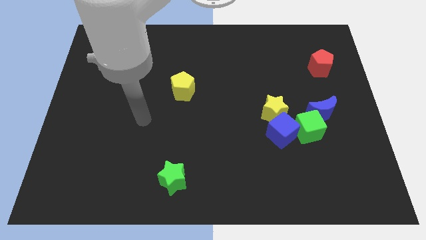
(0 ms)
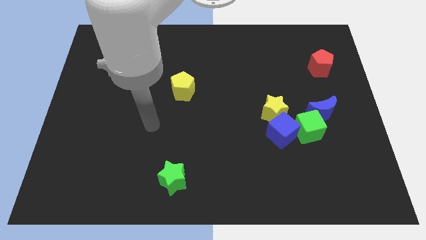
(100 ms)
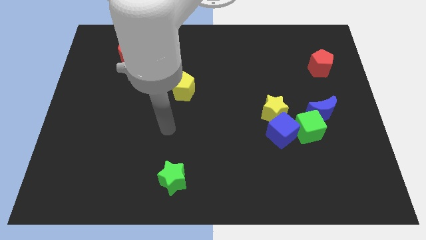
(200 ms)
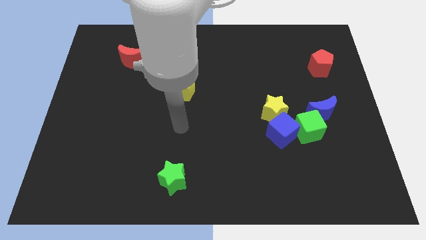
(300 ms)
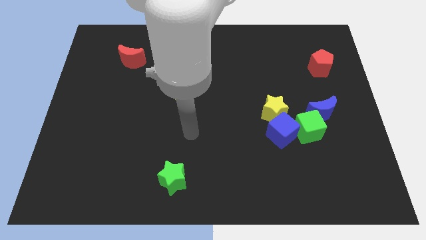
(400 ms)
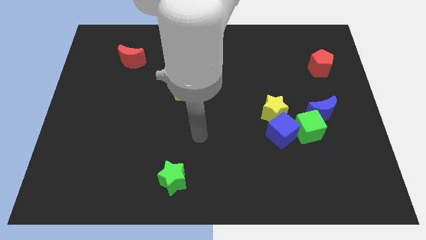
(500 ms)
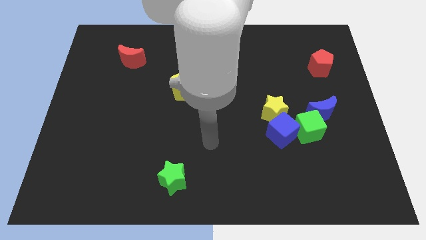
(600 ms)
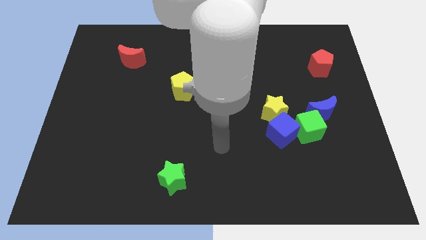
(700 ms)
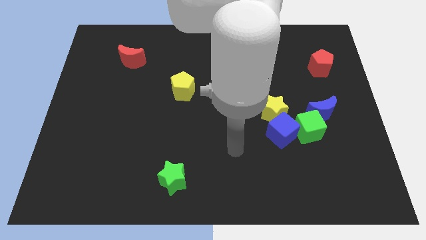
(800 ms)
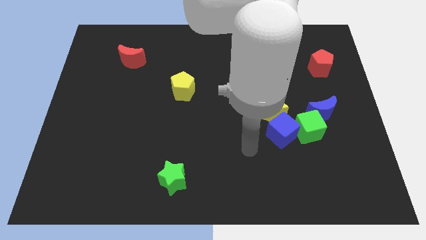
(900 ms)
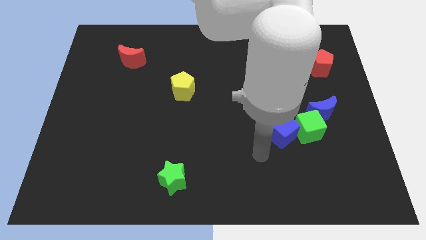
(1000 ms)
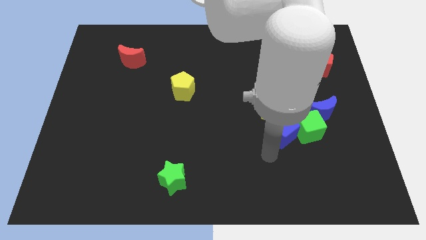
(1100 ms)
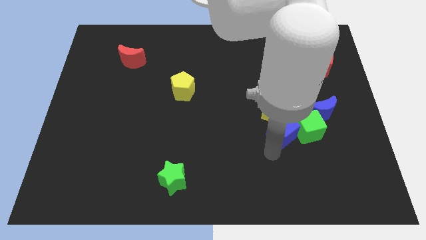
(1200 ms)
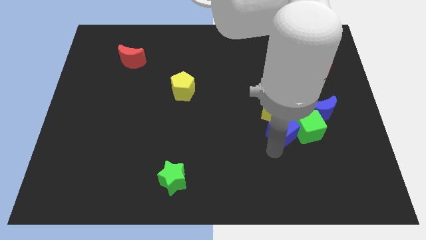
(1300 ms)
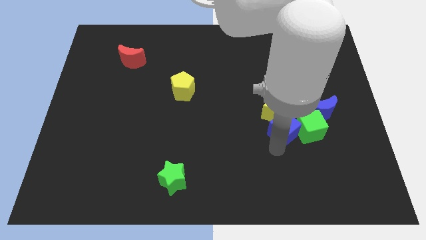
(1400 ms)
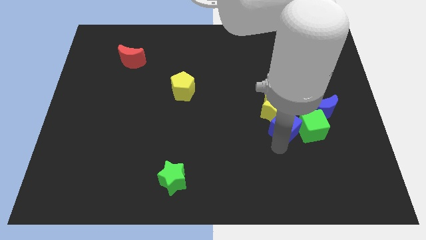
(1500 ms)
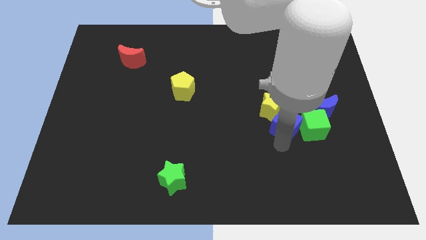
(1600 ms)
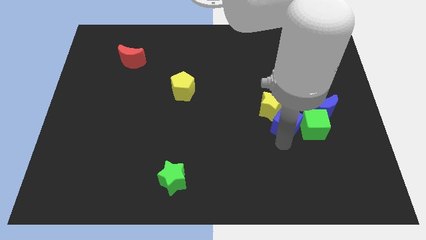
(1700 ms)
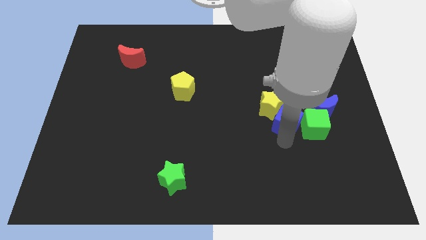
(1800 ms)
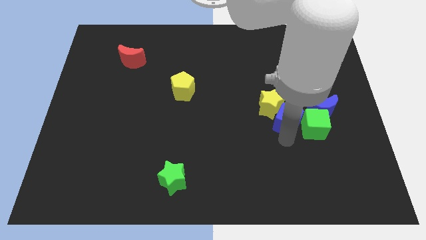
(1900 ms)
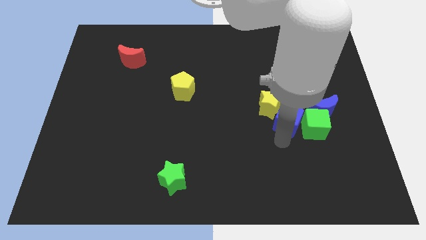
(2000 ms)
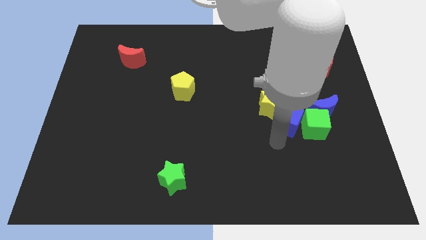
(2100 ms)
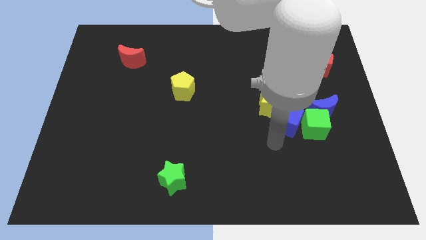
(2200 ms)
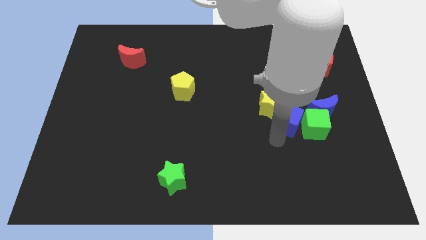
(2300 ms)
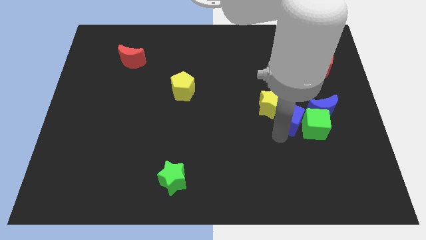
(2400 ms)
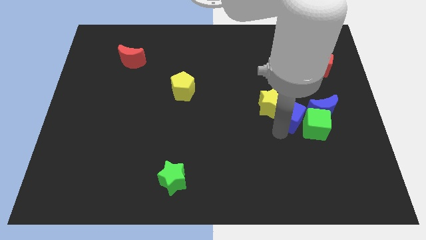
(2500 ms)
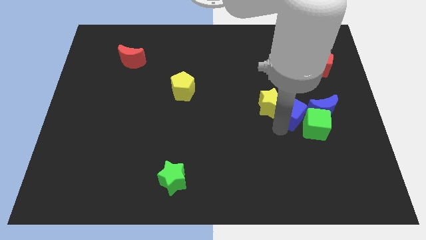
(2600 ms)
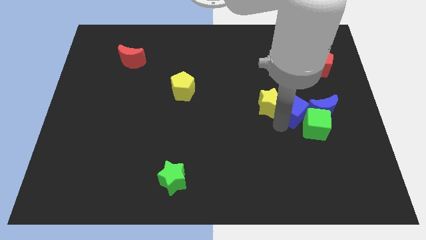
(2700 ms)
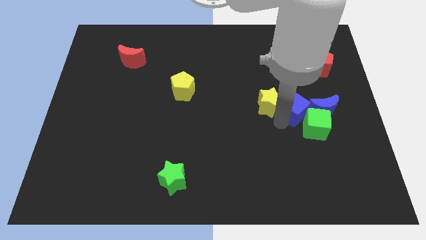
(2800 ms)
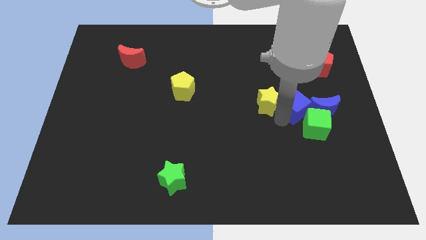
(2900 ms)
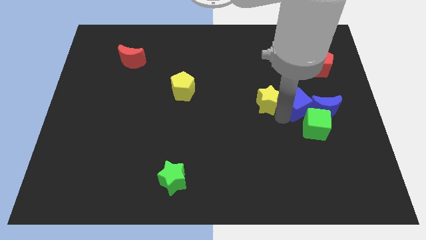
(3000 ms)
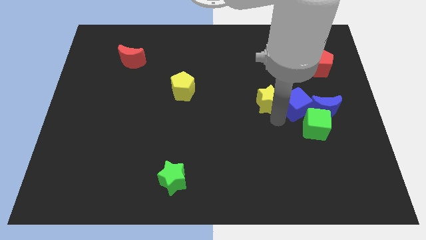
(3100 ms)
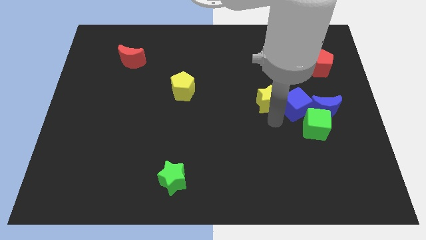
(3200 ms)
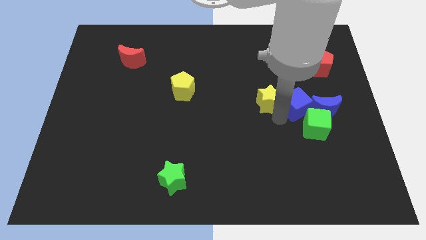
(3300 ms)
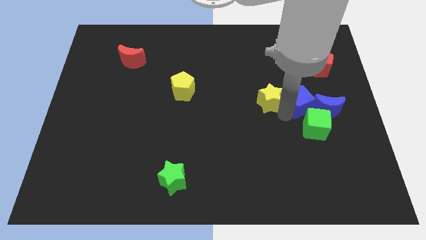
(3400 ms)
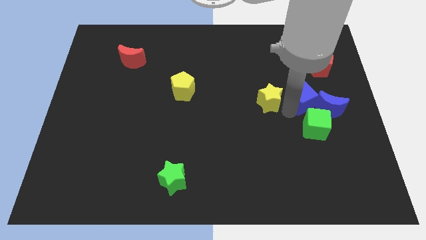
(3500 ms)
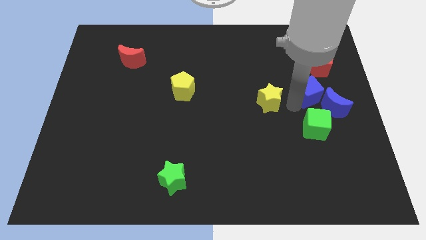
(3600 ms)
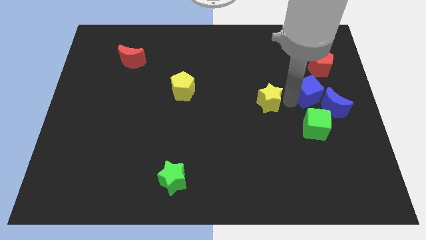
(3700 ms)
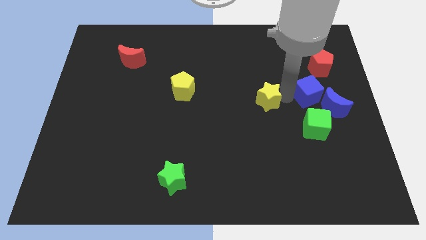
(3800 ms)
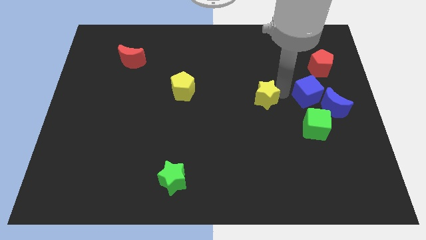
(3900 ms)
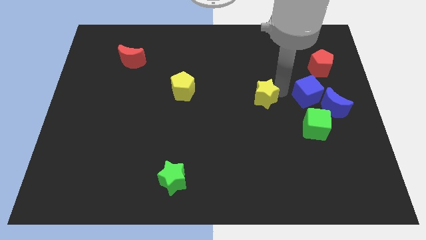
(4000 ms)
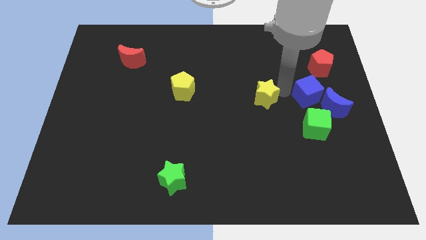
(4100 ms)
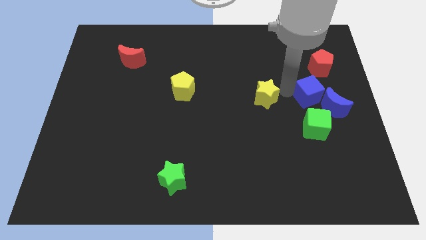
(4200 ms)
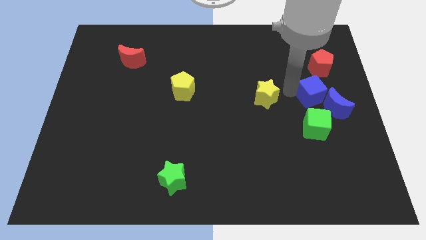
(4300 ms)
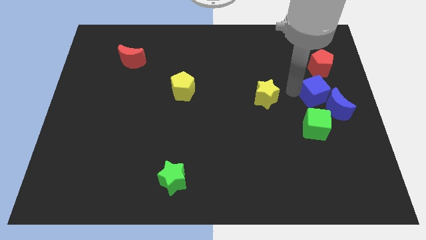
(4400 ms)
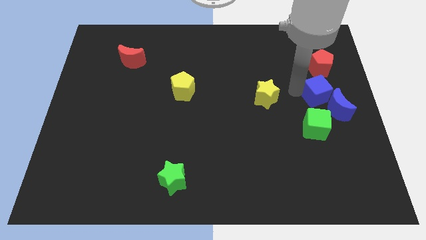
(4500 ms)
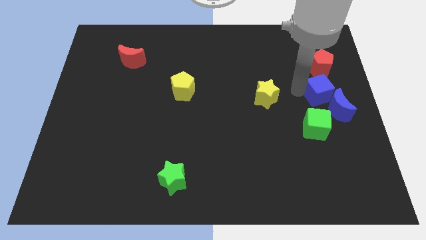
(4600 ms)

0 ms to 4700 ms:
slide the blue cube to the right side

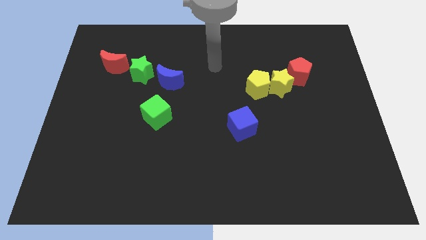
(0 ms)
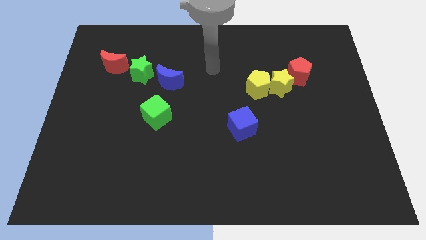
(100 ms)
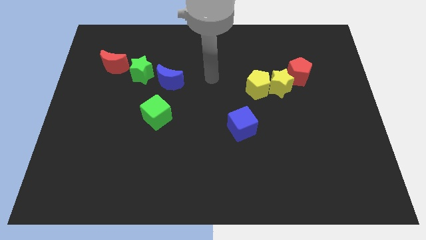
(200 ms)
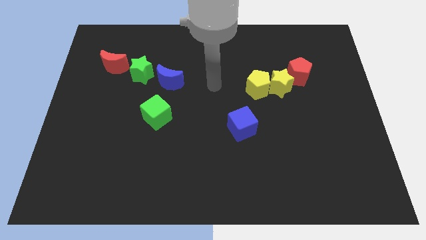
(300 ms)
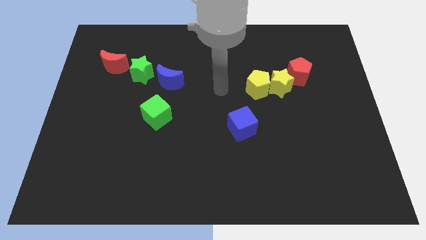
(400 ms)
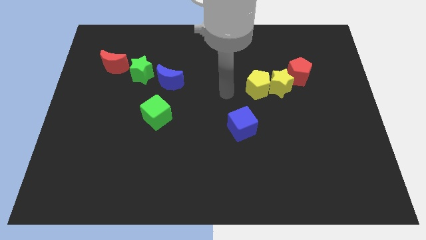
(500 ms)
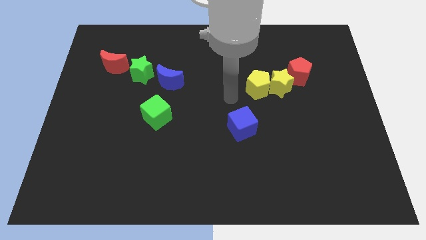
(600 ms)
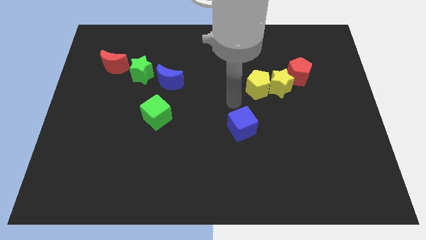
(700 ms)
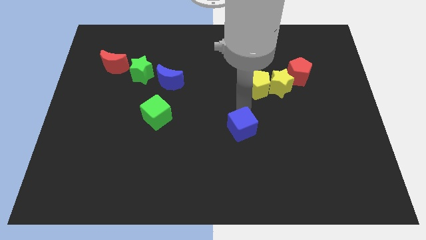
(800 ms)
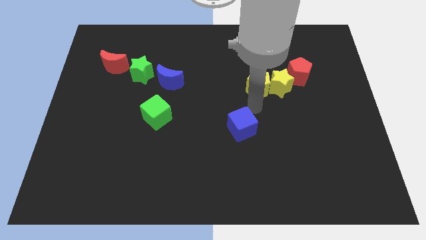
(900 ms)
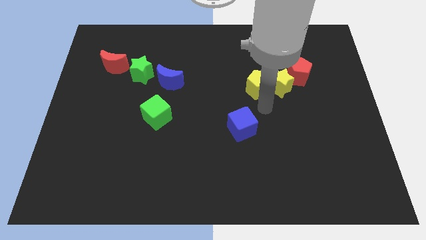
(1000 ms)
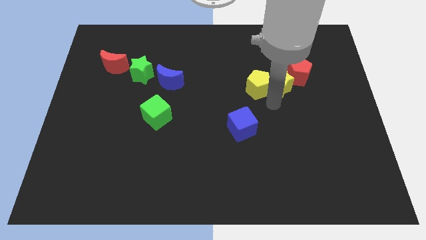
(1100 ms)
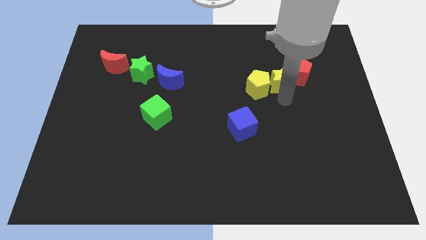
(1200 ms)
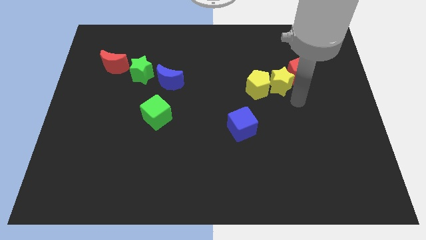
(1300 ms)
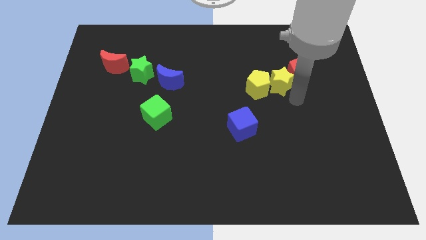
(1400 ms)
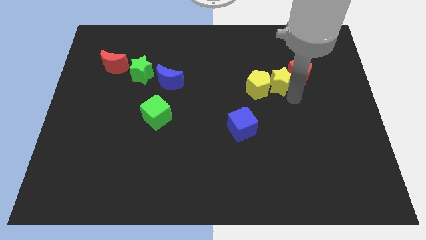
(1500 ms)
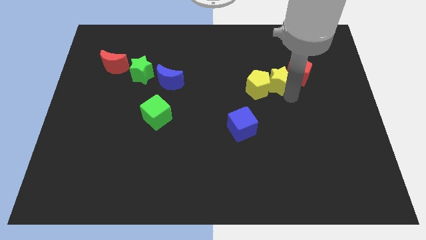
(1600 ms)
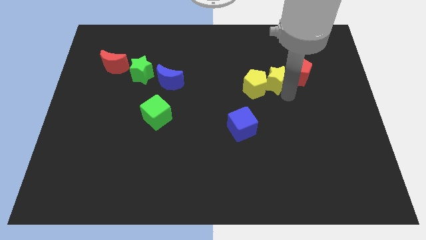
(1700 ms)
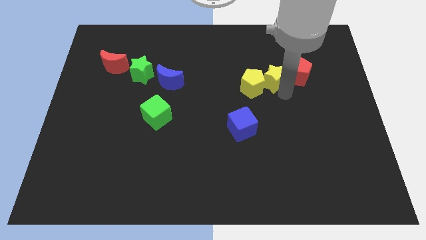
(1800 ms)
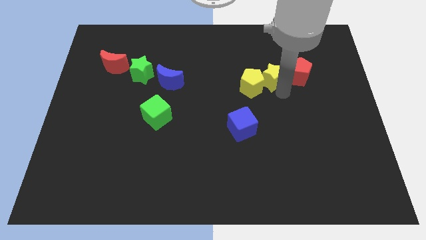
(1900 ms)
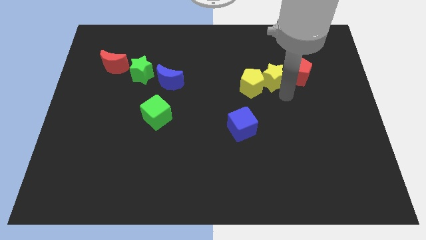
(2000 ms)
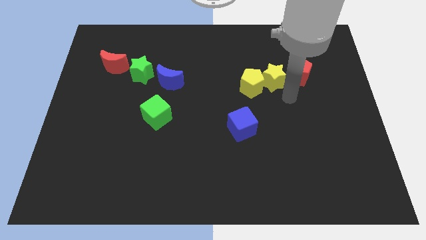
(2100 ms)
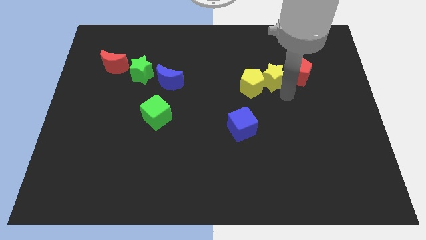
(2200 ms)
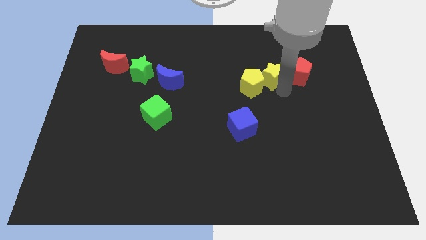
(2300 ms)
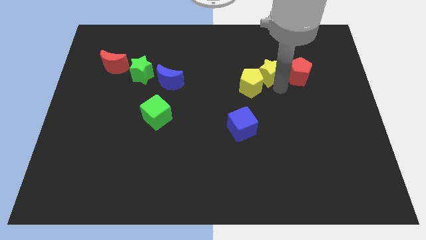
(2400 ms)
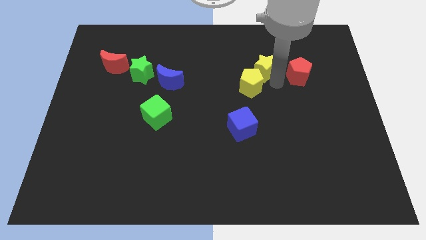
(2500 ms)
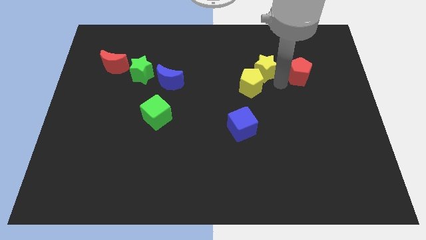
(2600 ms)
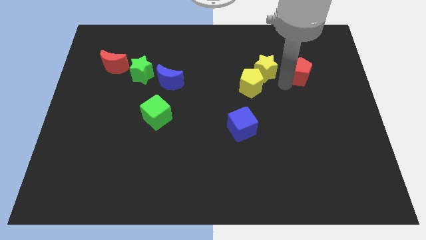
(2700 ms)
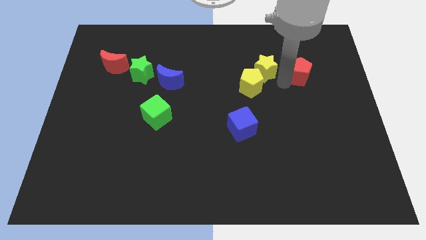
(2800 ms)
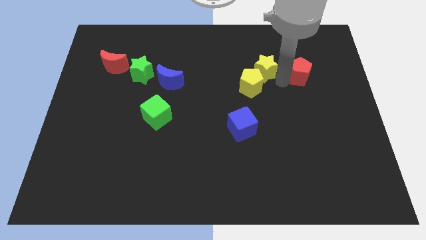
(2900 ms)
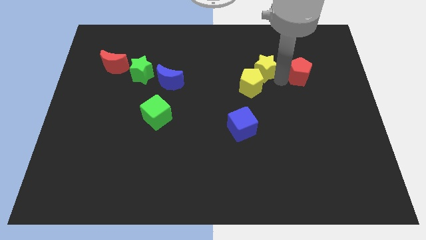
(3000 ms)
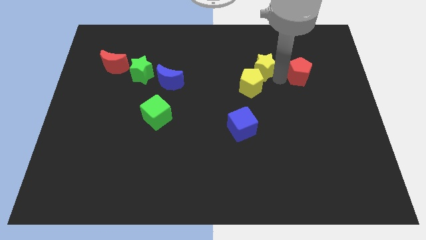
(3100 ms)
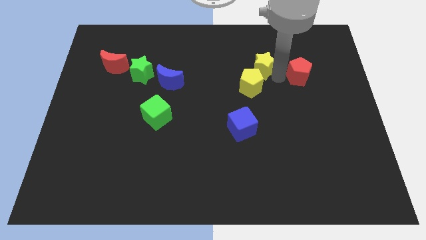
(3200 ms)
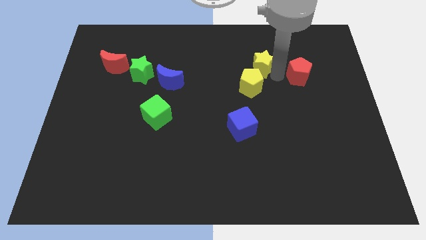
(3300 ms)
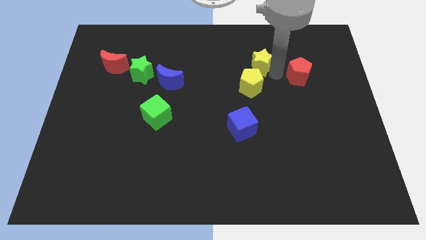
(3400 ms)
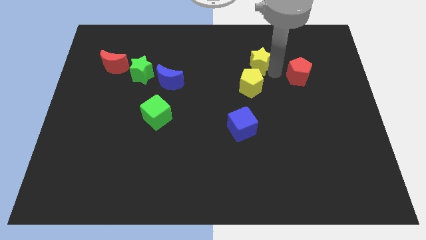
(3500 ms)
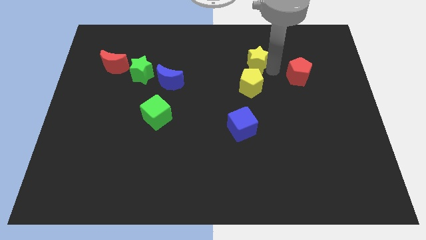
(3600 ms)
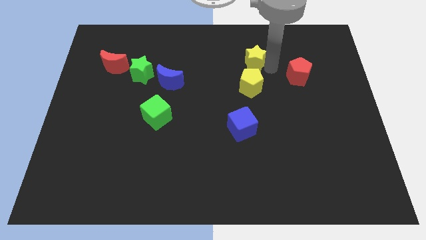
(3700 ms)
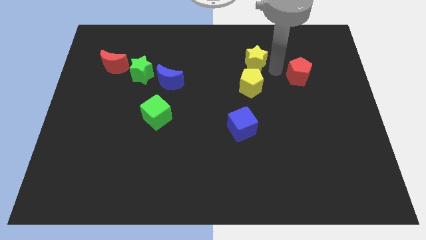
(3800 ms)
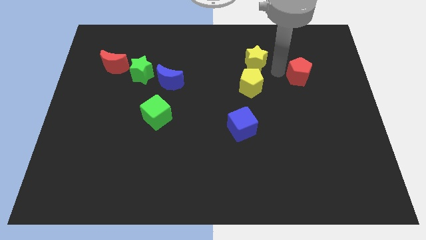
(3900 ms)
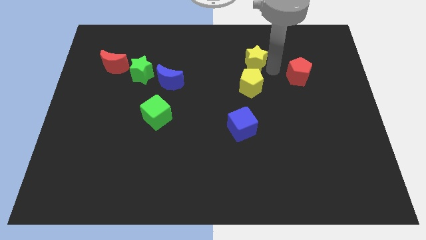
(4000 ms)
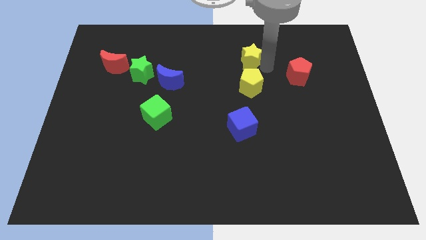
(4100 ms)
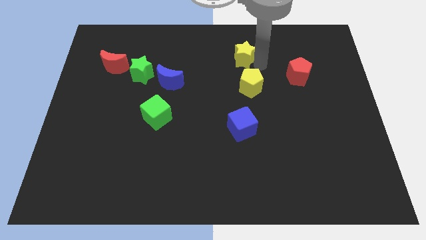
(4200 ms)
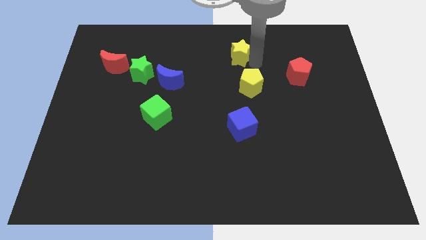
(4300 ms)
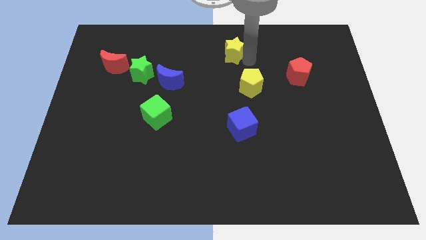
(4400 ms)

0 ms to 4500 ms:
move the yellow star to the top
